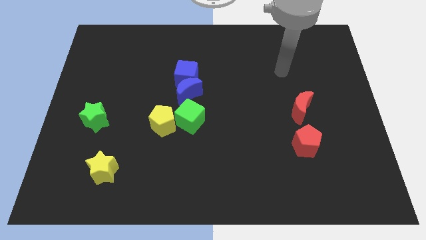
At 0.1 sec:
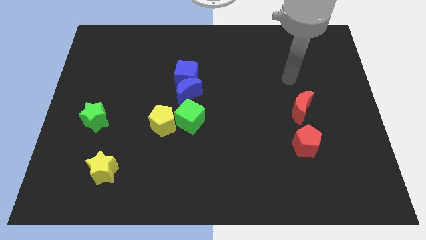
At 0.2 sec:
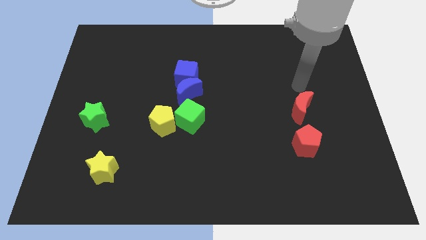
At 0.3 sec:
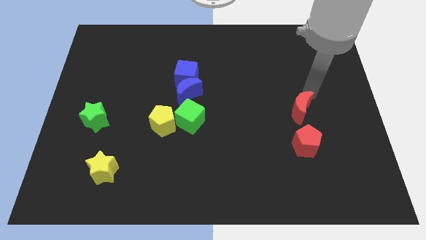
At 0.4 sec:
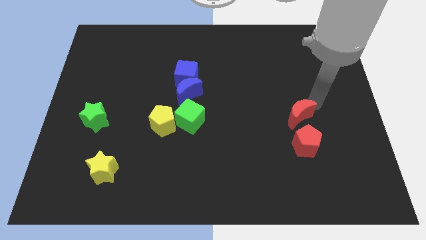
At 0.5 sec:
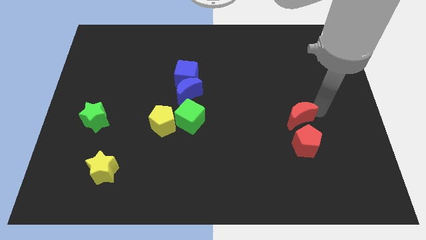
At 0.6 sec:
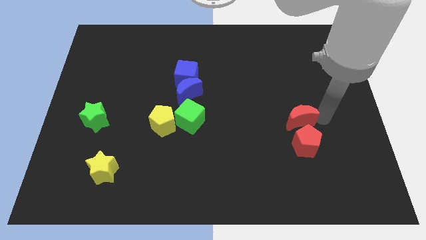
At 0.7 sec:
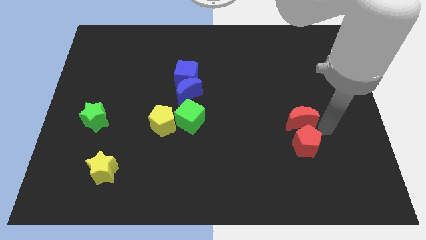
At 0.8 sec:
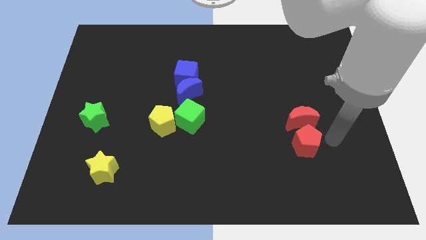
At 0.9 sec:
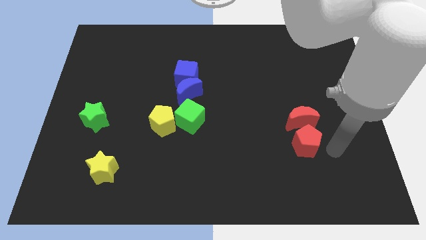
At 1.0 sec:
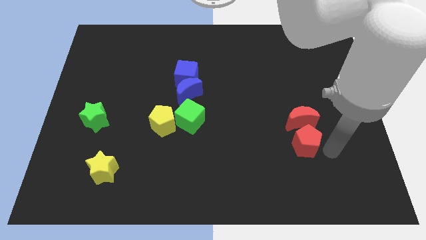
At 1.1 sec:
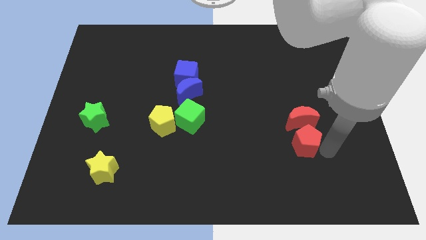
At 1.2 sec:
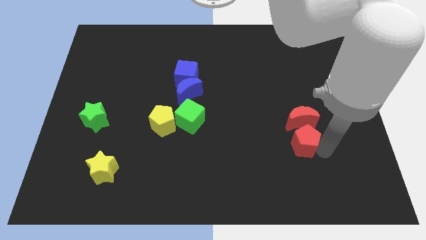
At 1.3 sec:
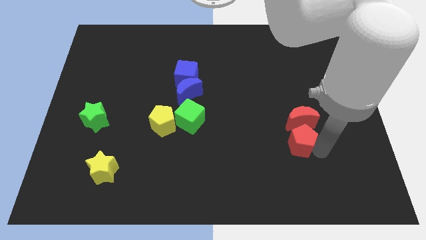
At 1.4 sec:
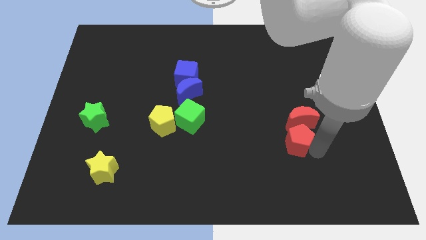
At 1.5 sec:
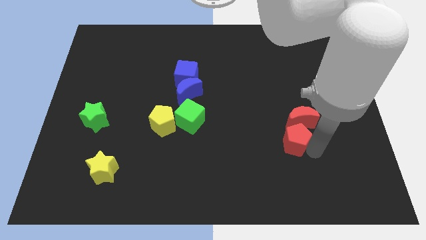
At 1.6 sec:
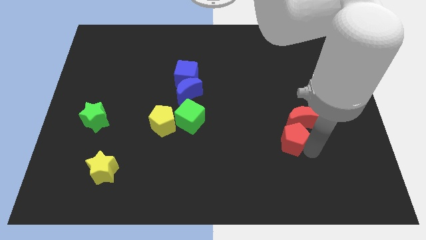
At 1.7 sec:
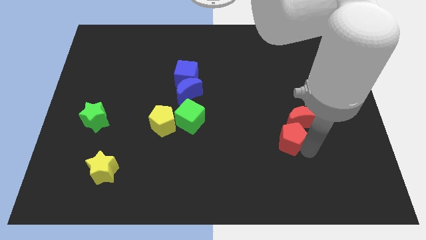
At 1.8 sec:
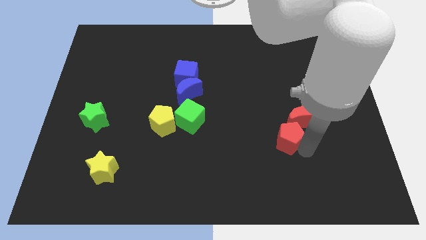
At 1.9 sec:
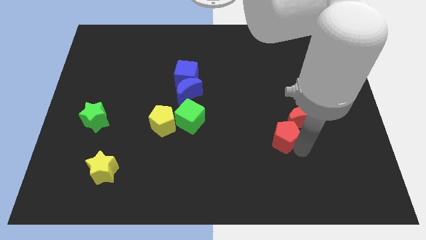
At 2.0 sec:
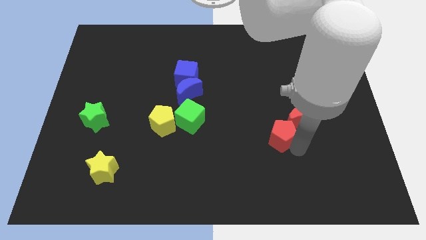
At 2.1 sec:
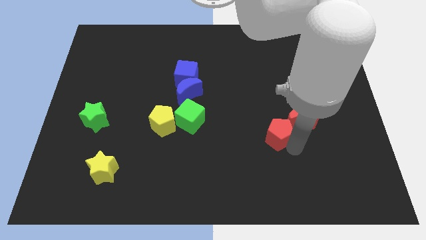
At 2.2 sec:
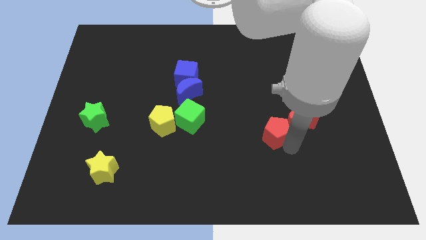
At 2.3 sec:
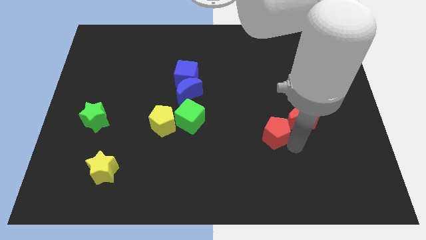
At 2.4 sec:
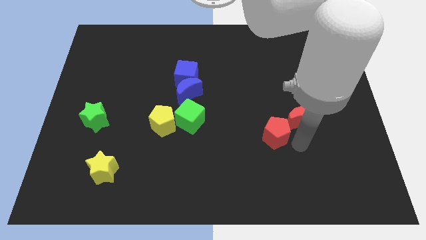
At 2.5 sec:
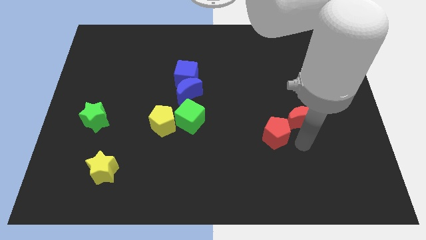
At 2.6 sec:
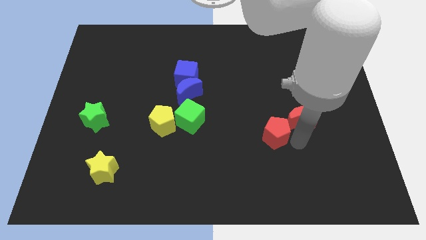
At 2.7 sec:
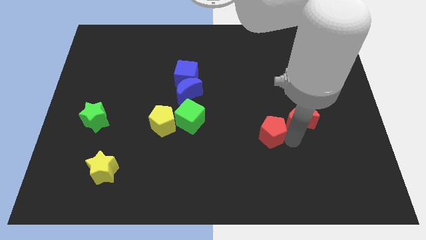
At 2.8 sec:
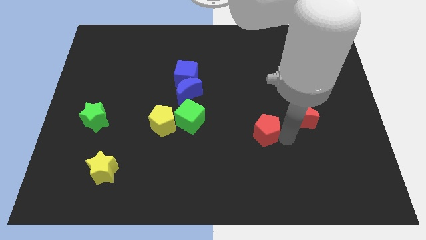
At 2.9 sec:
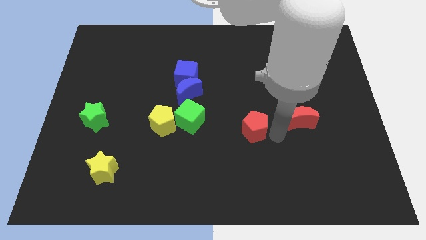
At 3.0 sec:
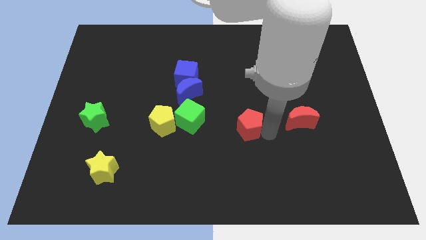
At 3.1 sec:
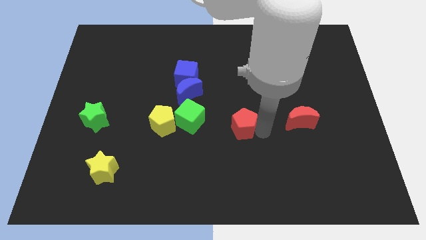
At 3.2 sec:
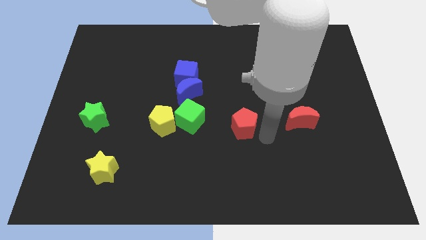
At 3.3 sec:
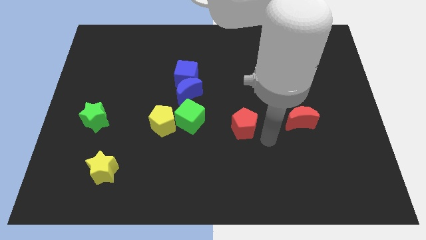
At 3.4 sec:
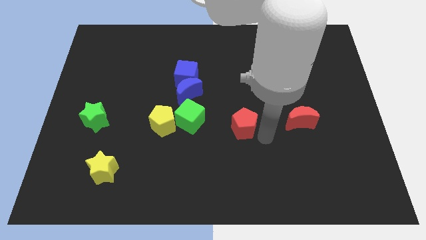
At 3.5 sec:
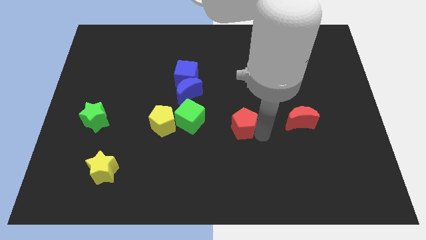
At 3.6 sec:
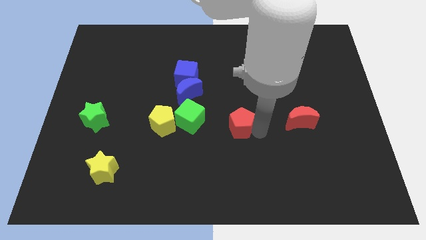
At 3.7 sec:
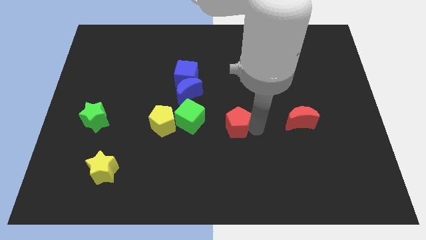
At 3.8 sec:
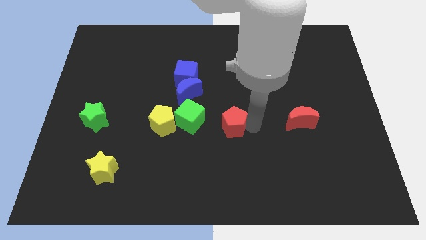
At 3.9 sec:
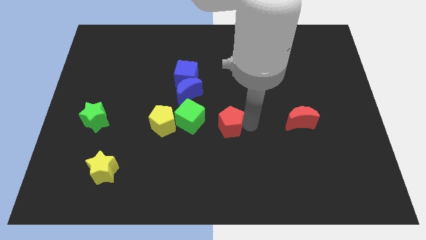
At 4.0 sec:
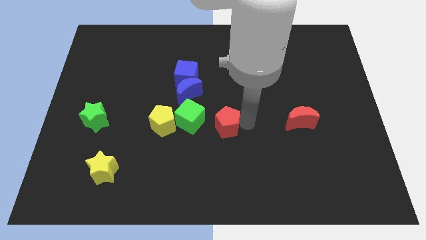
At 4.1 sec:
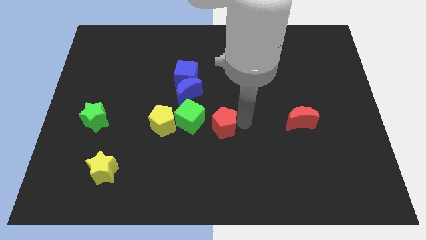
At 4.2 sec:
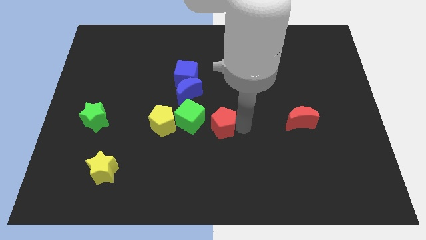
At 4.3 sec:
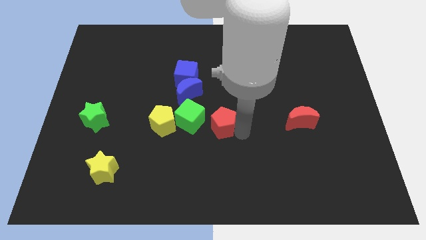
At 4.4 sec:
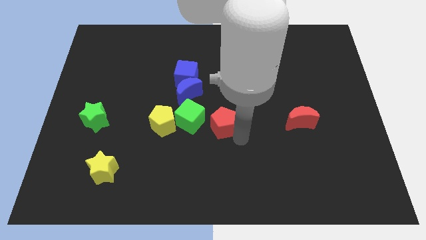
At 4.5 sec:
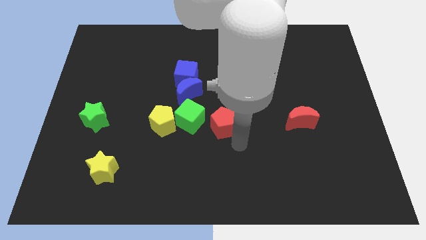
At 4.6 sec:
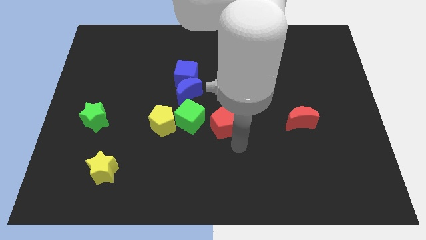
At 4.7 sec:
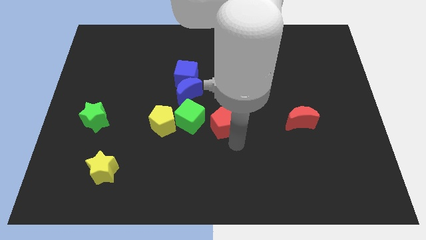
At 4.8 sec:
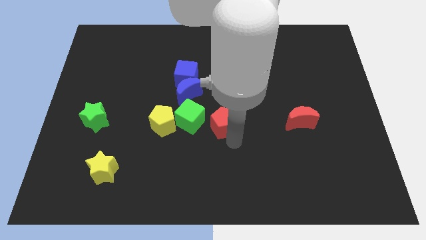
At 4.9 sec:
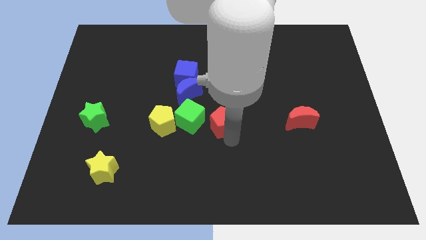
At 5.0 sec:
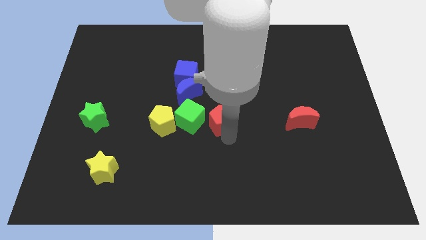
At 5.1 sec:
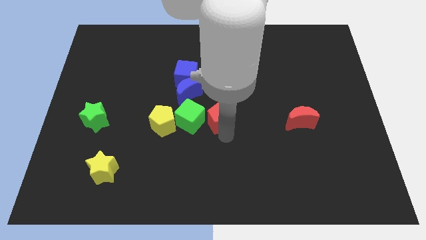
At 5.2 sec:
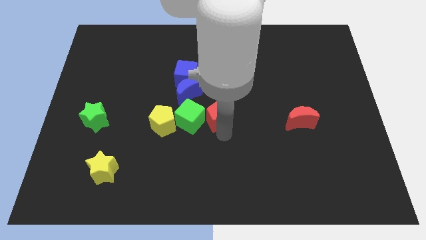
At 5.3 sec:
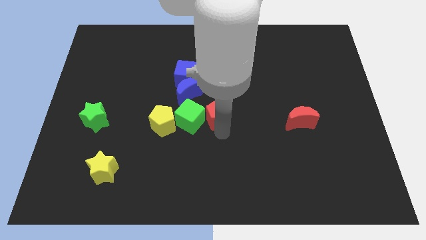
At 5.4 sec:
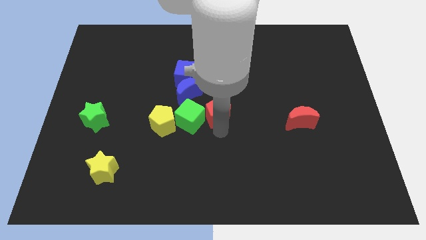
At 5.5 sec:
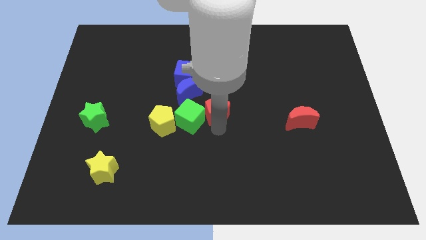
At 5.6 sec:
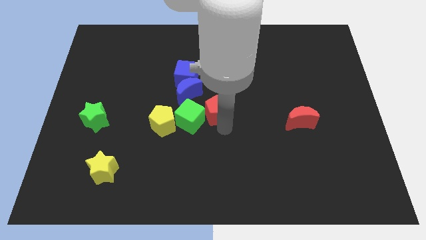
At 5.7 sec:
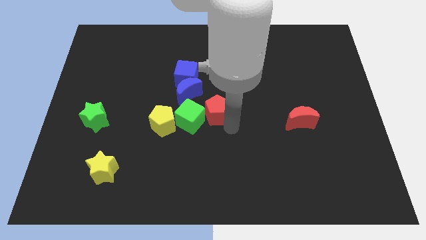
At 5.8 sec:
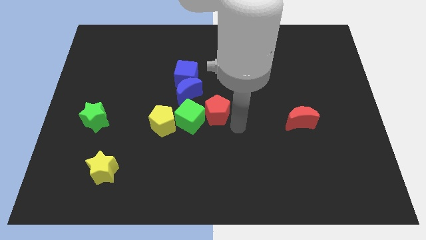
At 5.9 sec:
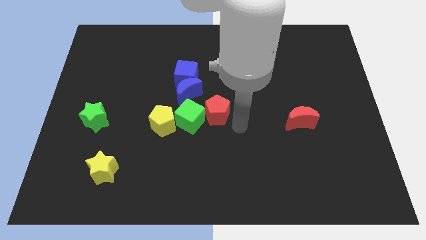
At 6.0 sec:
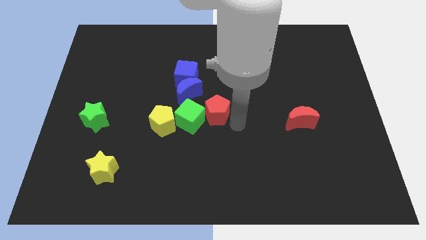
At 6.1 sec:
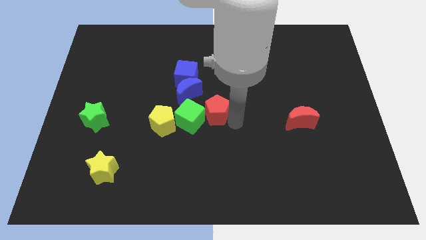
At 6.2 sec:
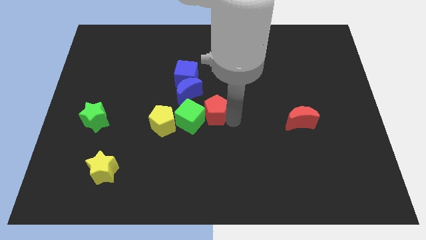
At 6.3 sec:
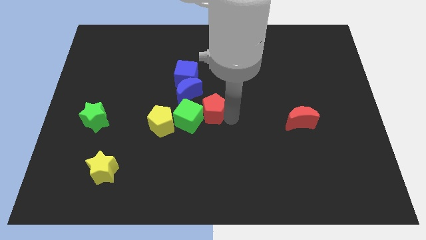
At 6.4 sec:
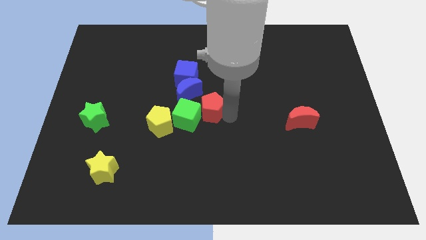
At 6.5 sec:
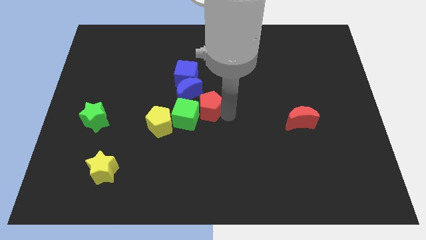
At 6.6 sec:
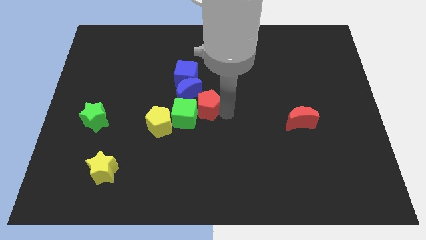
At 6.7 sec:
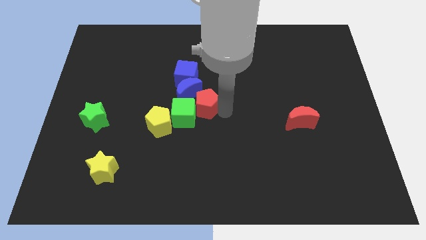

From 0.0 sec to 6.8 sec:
push the red pentagon to the blue moon

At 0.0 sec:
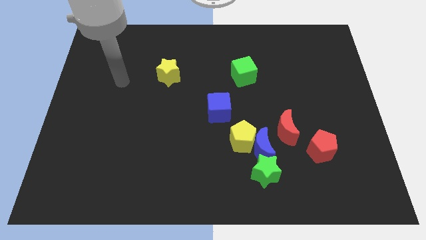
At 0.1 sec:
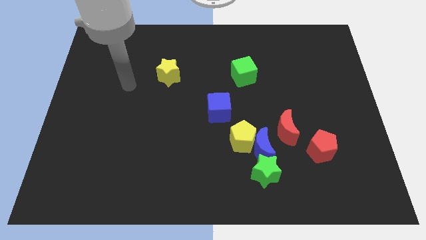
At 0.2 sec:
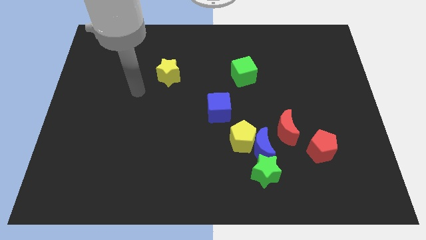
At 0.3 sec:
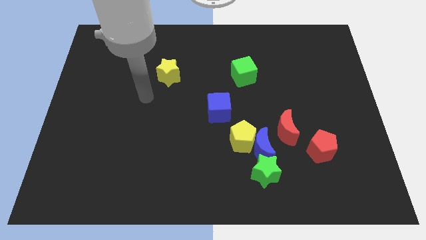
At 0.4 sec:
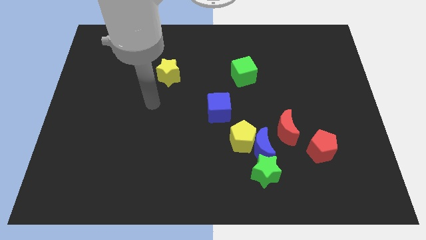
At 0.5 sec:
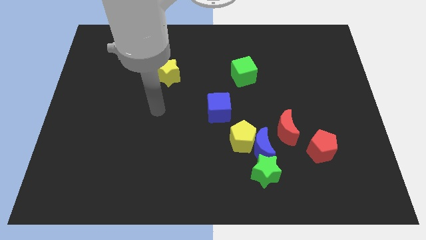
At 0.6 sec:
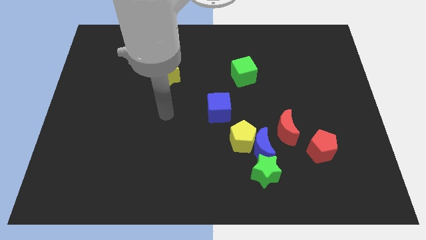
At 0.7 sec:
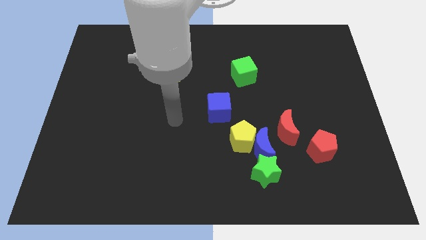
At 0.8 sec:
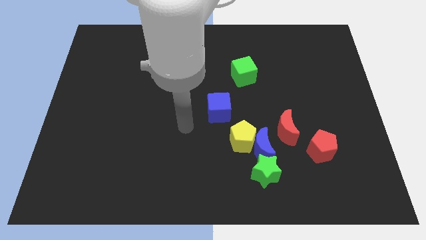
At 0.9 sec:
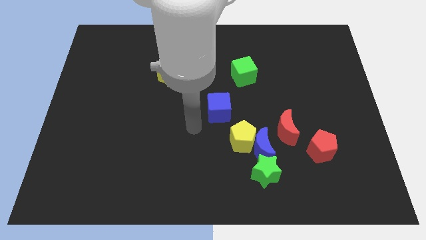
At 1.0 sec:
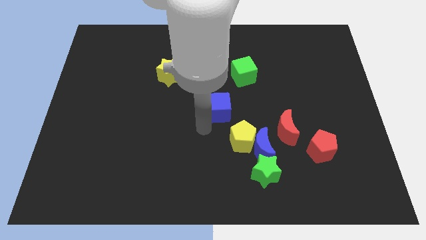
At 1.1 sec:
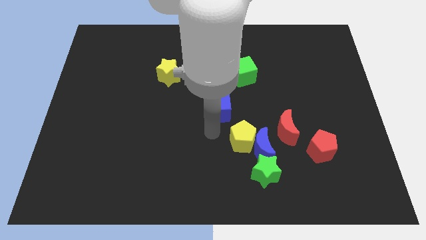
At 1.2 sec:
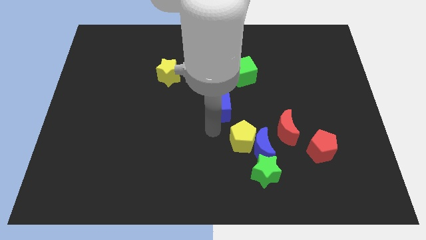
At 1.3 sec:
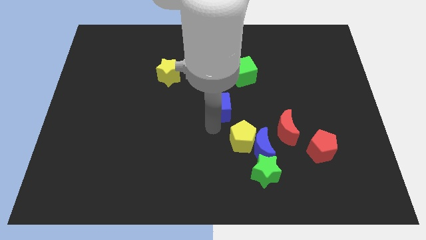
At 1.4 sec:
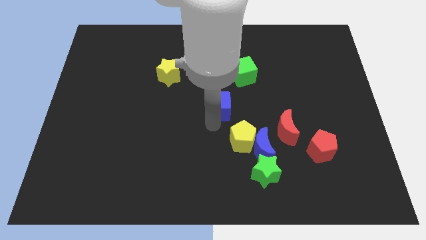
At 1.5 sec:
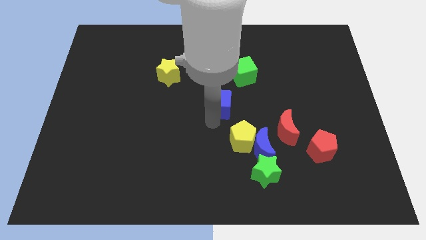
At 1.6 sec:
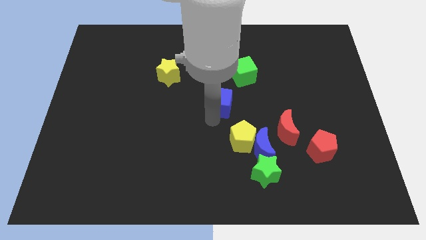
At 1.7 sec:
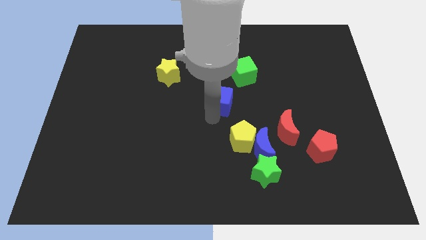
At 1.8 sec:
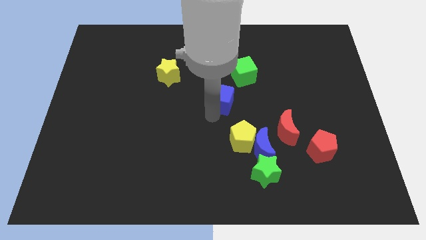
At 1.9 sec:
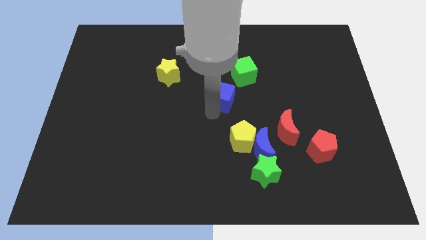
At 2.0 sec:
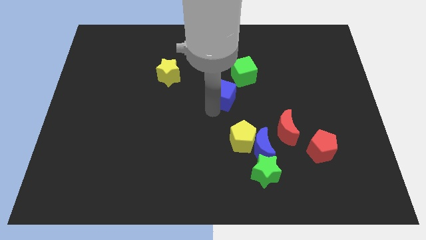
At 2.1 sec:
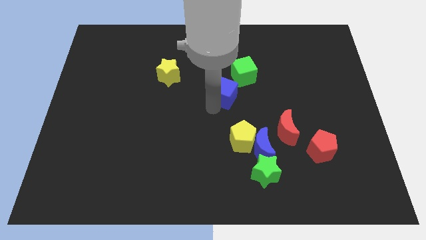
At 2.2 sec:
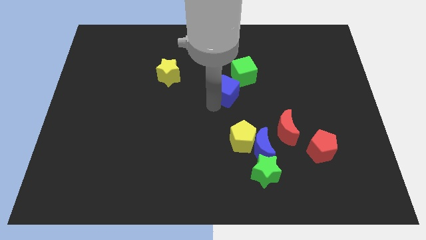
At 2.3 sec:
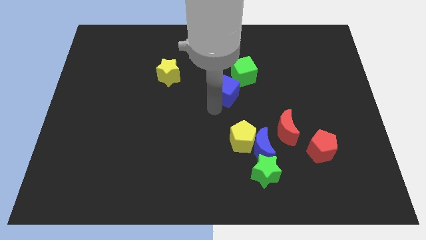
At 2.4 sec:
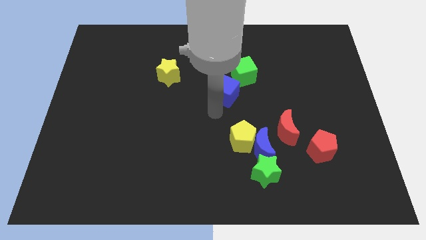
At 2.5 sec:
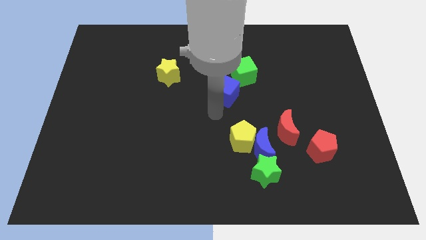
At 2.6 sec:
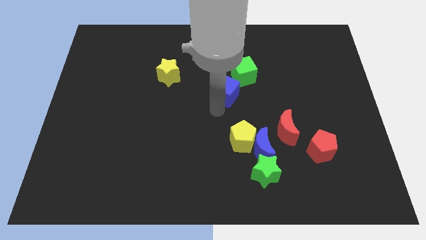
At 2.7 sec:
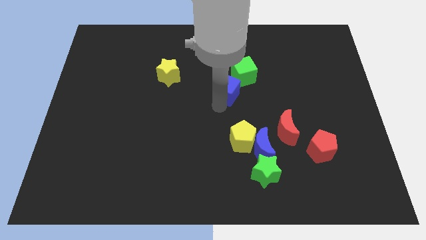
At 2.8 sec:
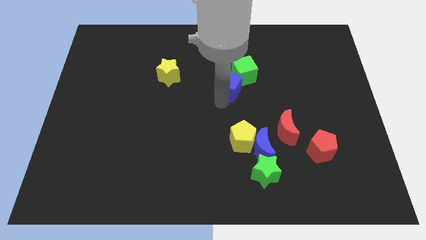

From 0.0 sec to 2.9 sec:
move the blue cube next to the green cube
